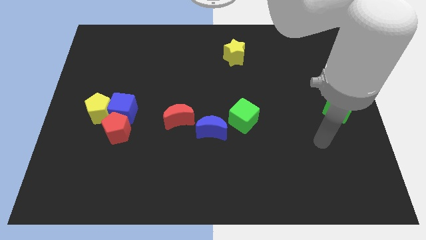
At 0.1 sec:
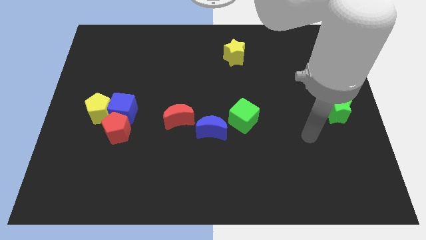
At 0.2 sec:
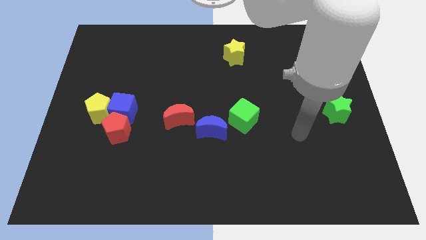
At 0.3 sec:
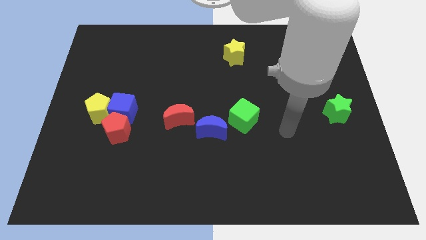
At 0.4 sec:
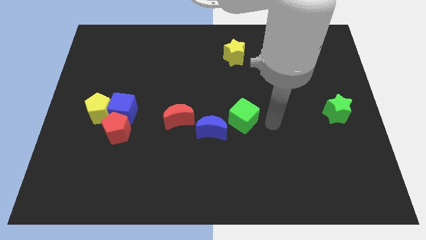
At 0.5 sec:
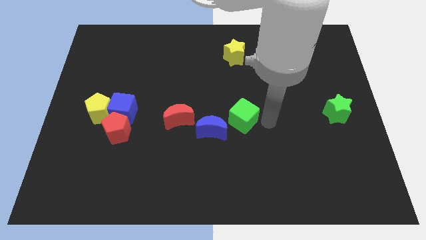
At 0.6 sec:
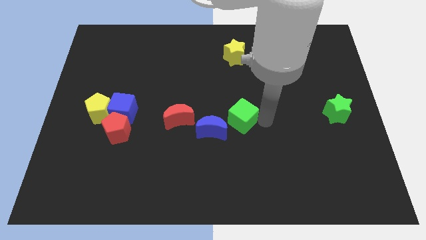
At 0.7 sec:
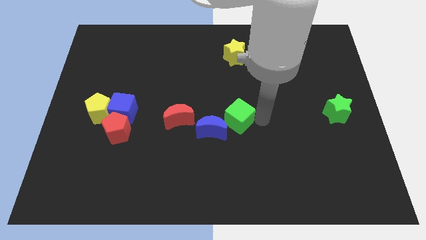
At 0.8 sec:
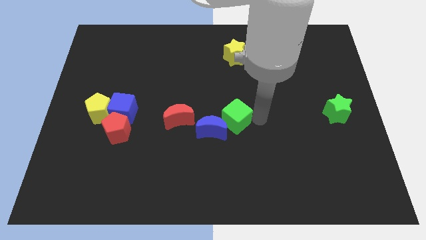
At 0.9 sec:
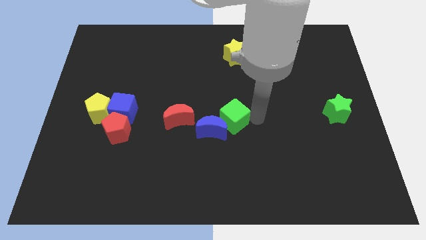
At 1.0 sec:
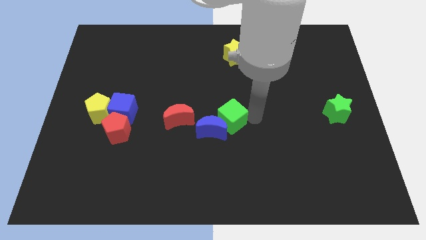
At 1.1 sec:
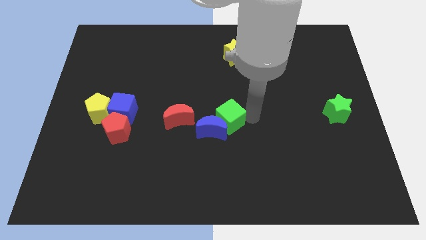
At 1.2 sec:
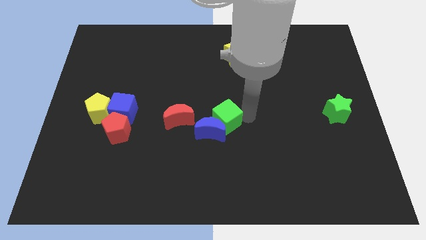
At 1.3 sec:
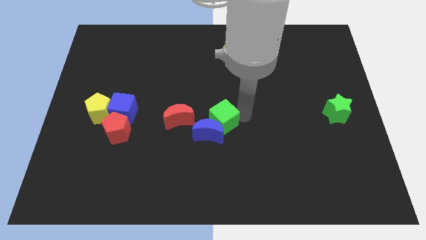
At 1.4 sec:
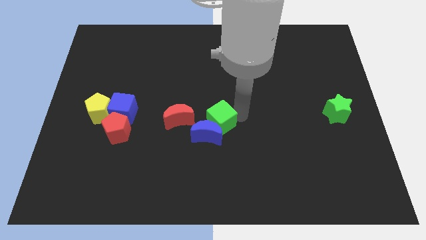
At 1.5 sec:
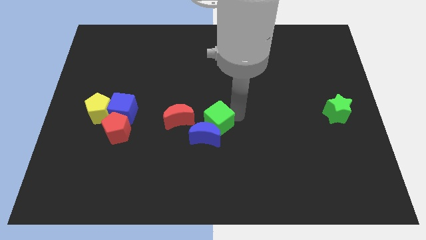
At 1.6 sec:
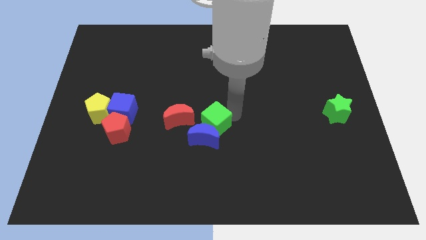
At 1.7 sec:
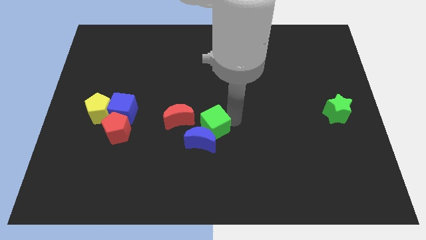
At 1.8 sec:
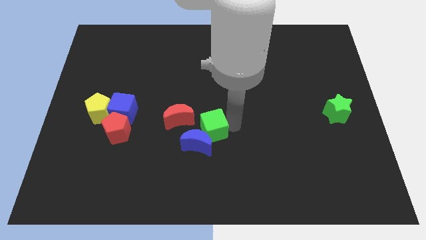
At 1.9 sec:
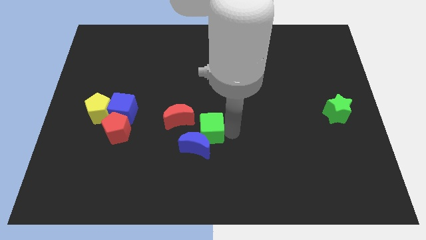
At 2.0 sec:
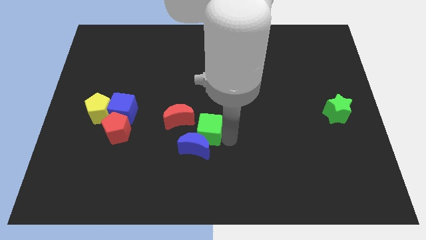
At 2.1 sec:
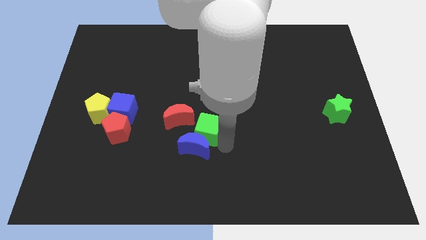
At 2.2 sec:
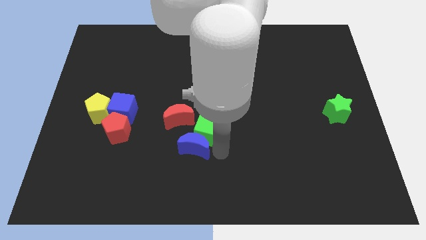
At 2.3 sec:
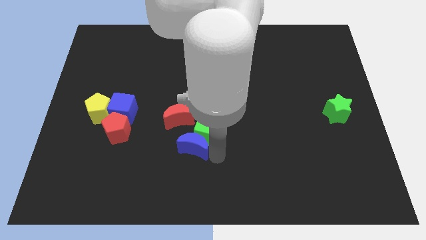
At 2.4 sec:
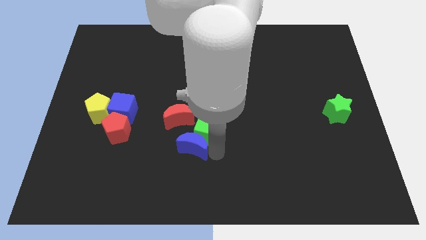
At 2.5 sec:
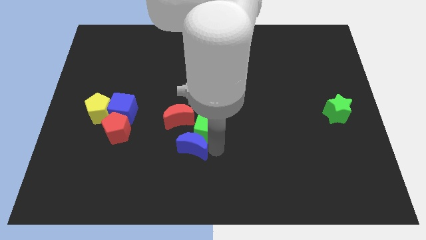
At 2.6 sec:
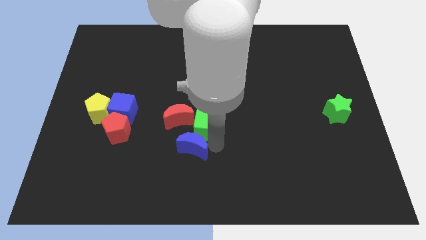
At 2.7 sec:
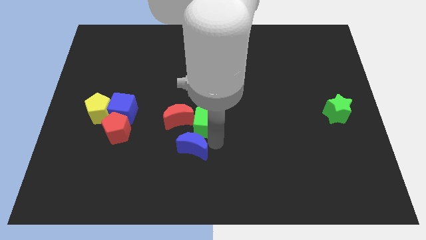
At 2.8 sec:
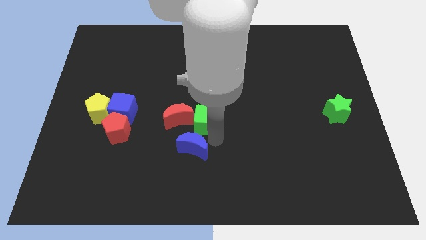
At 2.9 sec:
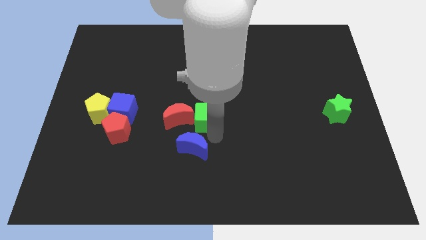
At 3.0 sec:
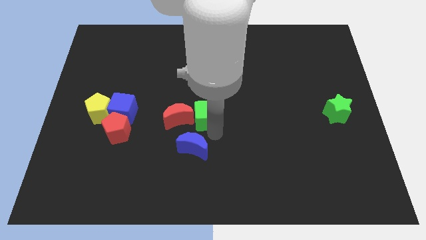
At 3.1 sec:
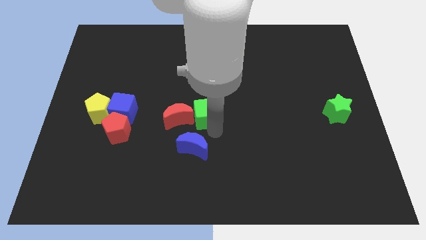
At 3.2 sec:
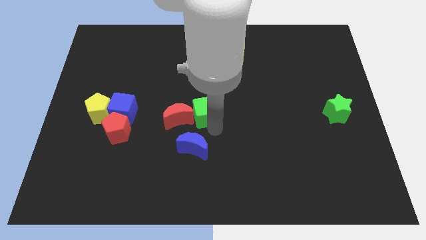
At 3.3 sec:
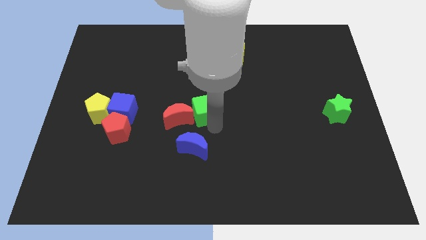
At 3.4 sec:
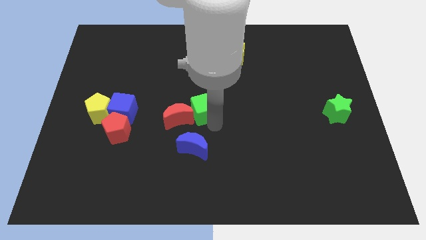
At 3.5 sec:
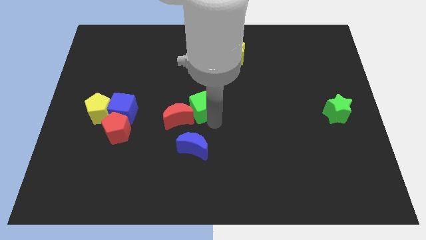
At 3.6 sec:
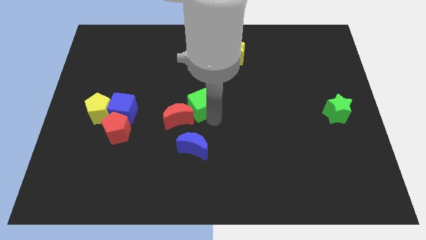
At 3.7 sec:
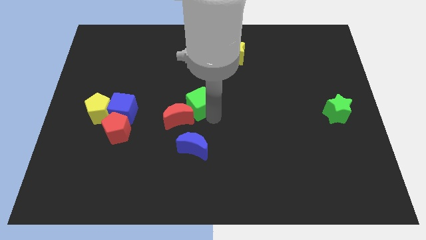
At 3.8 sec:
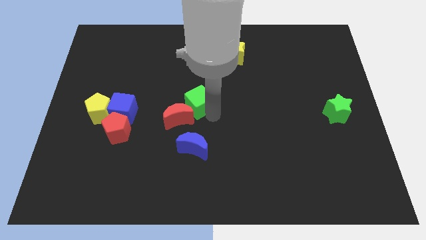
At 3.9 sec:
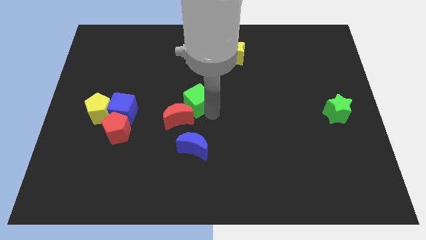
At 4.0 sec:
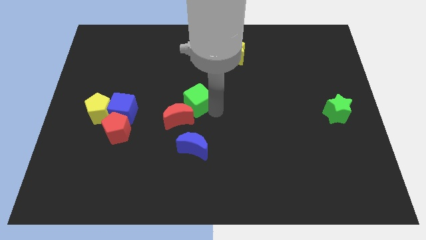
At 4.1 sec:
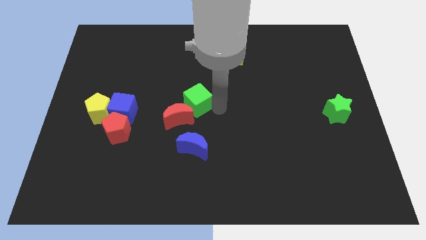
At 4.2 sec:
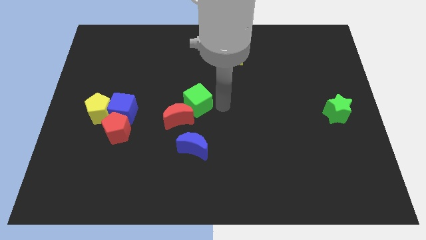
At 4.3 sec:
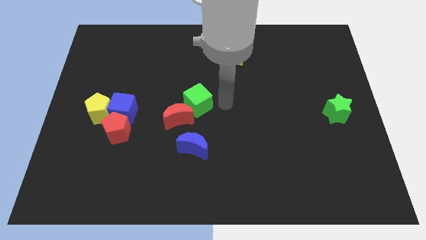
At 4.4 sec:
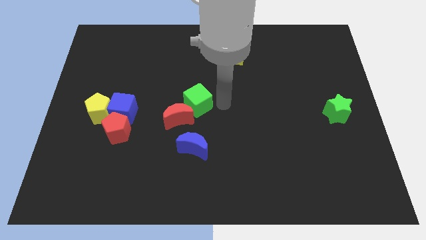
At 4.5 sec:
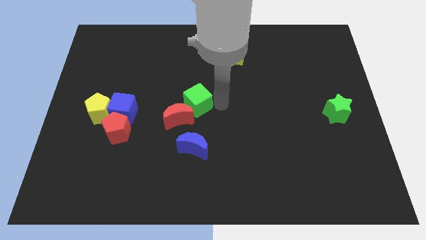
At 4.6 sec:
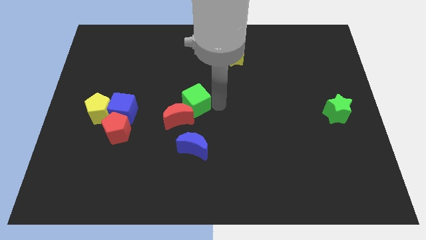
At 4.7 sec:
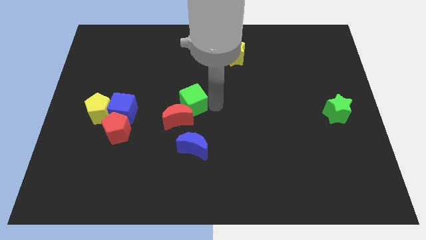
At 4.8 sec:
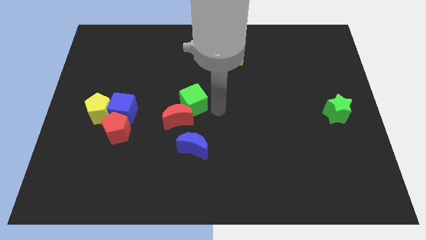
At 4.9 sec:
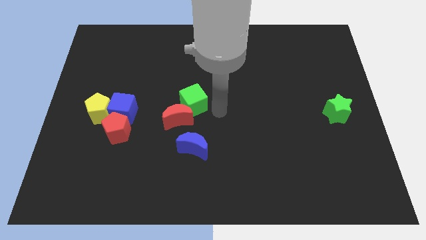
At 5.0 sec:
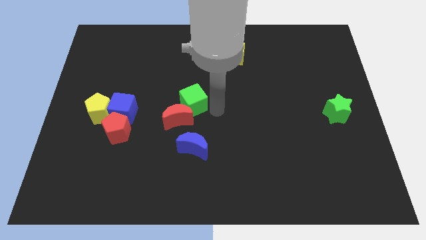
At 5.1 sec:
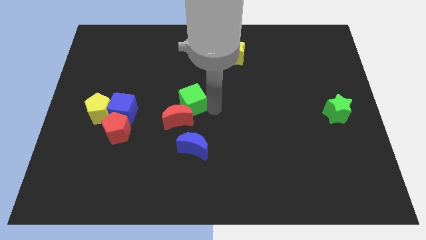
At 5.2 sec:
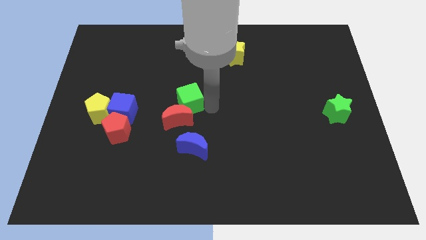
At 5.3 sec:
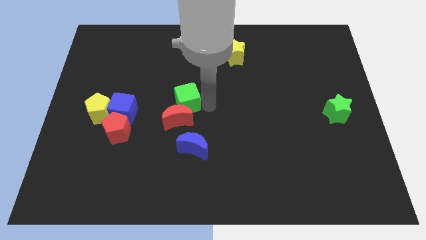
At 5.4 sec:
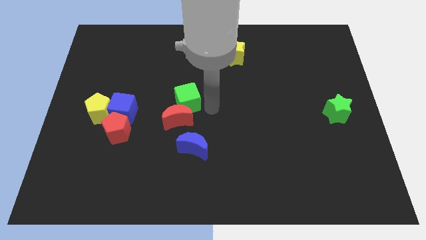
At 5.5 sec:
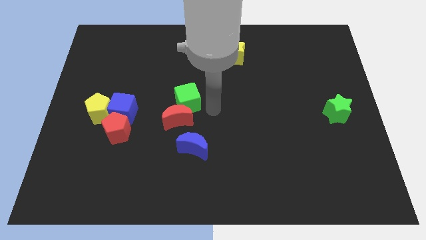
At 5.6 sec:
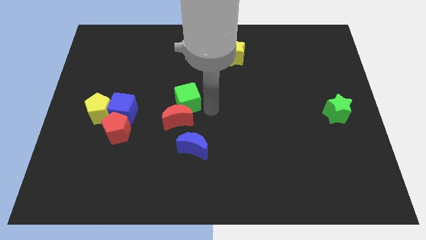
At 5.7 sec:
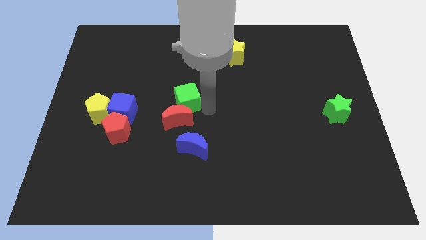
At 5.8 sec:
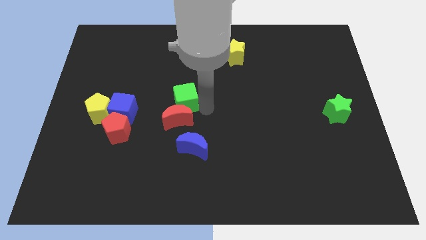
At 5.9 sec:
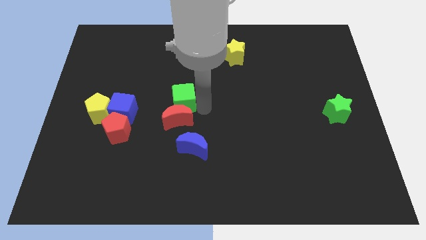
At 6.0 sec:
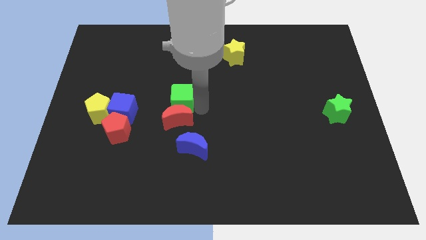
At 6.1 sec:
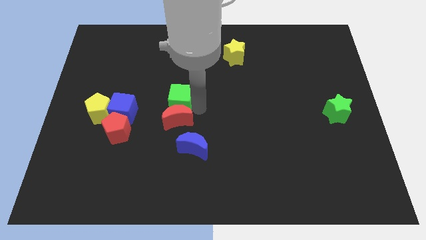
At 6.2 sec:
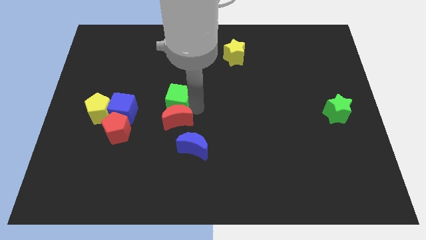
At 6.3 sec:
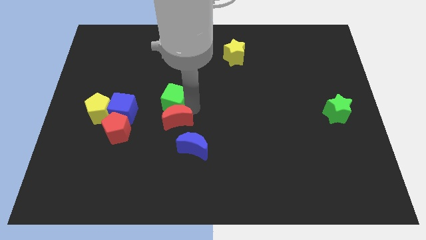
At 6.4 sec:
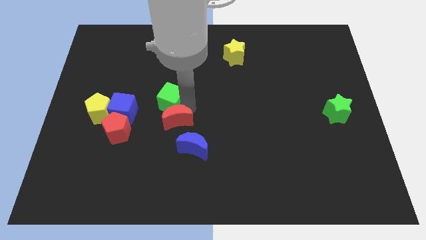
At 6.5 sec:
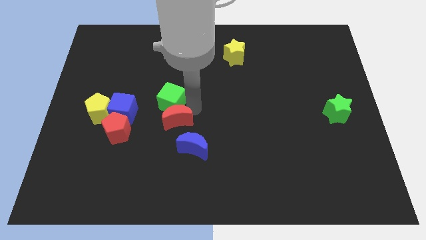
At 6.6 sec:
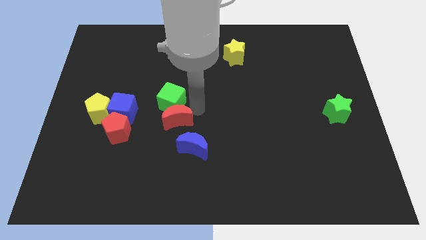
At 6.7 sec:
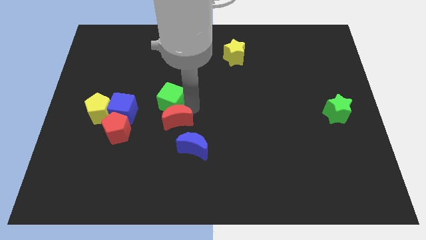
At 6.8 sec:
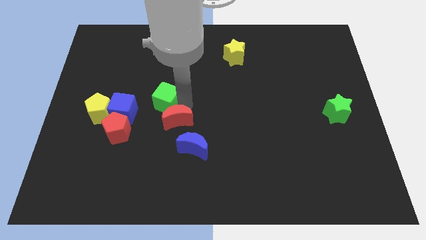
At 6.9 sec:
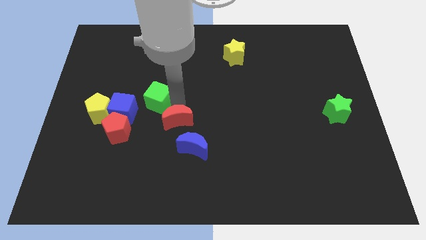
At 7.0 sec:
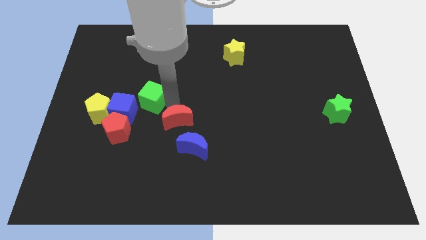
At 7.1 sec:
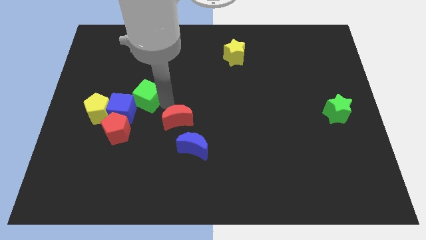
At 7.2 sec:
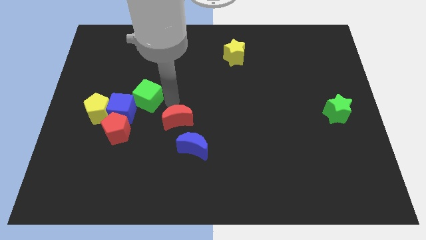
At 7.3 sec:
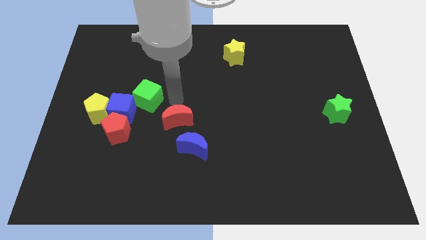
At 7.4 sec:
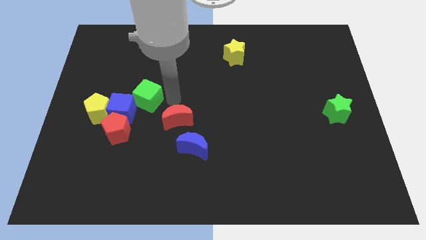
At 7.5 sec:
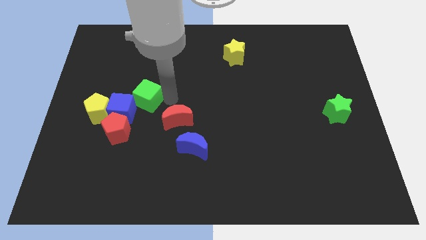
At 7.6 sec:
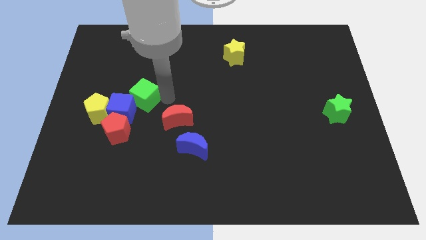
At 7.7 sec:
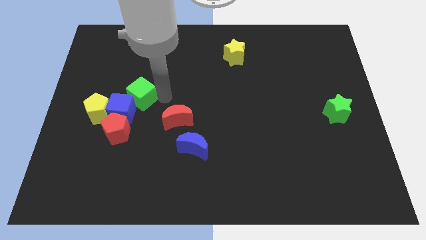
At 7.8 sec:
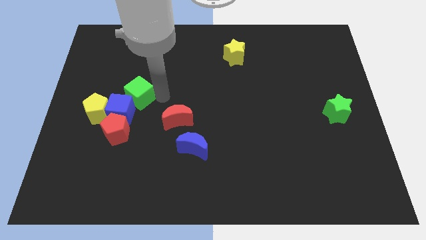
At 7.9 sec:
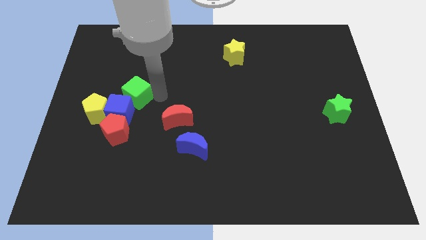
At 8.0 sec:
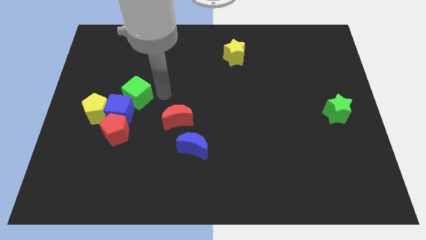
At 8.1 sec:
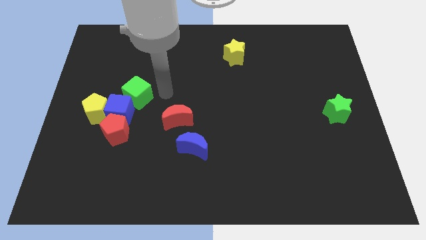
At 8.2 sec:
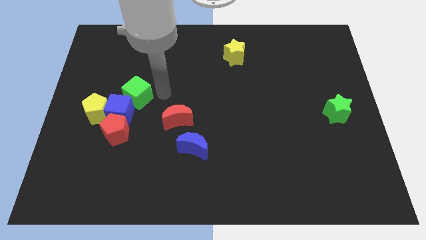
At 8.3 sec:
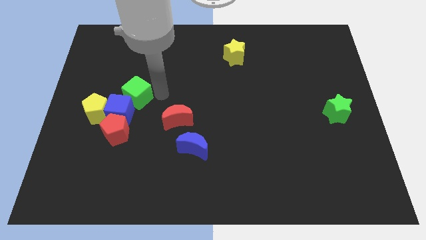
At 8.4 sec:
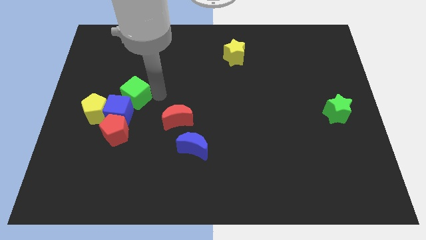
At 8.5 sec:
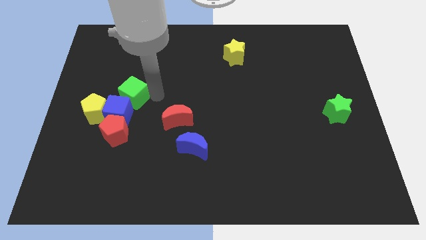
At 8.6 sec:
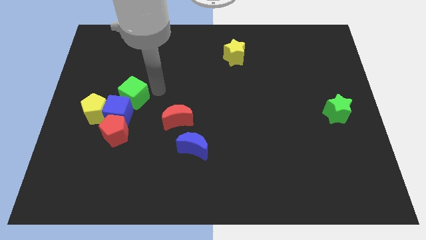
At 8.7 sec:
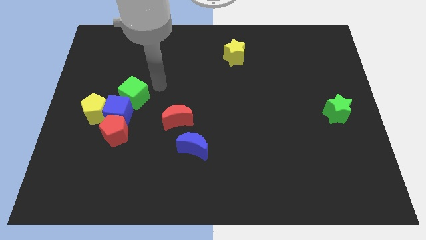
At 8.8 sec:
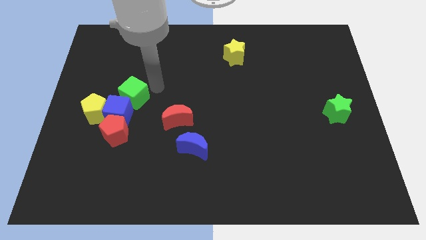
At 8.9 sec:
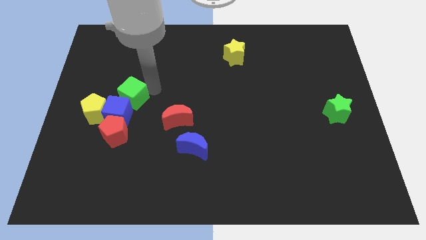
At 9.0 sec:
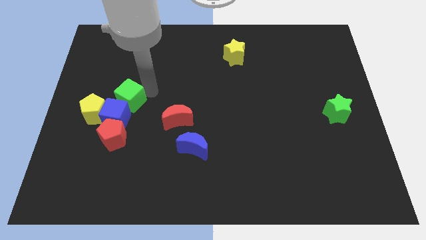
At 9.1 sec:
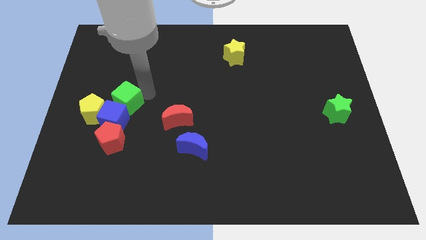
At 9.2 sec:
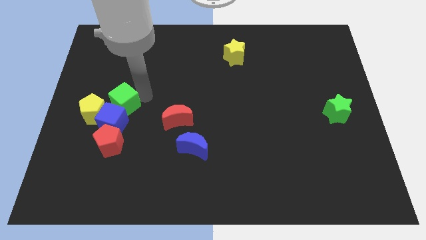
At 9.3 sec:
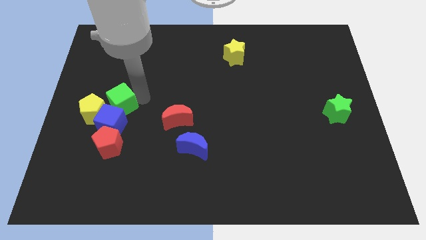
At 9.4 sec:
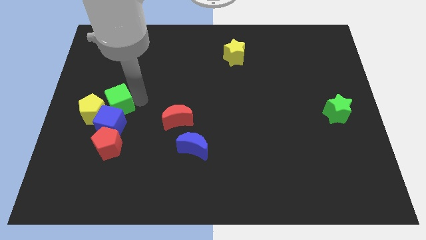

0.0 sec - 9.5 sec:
push the green cube close to the yellow pentagon
